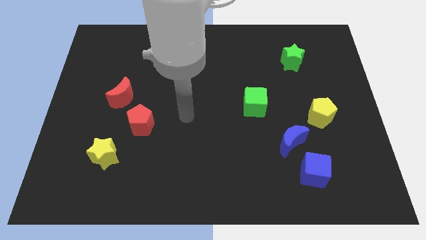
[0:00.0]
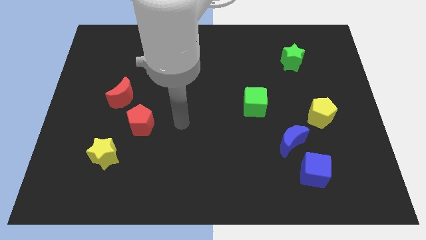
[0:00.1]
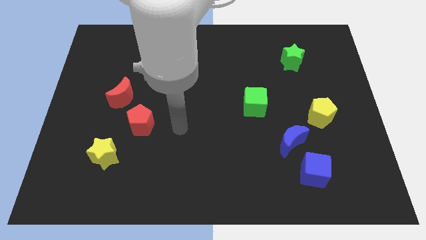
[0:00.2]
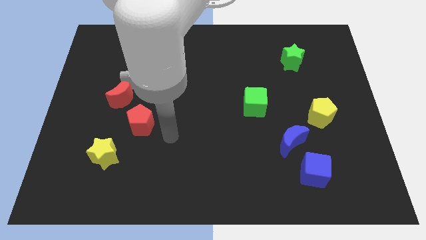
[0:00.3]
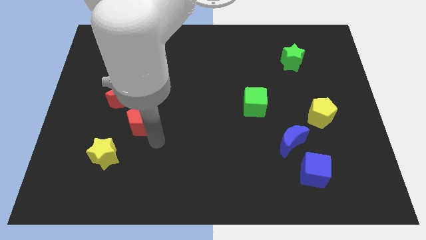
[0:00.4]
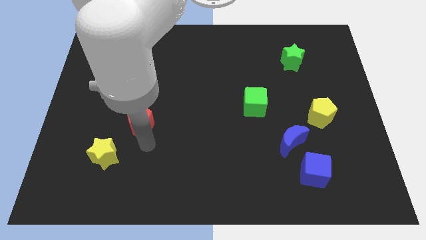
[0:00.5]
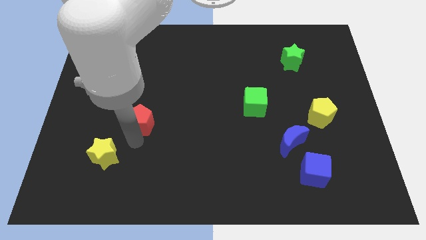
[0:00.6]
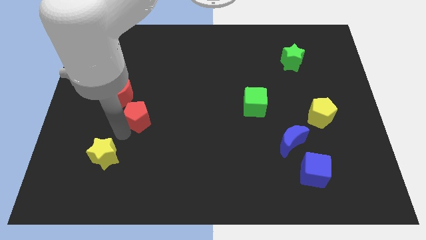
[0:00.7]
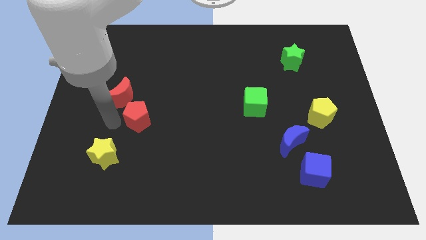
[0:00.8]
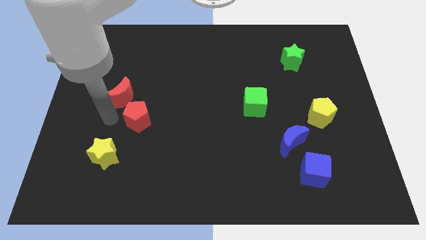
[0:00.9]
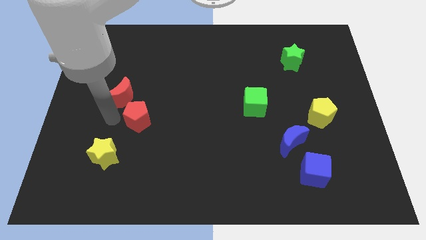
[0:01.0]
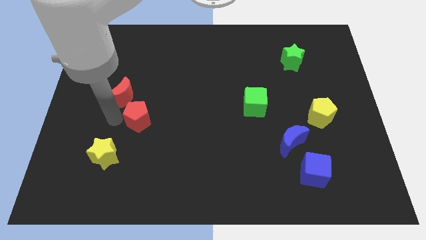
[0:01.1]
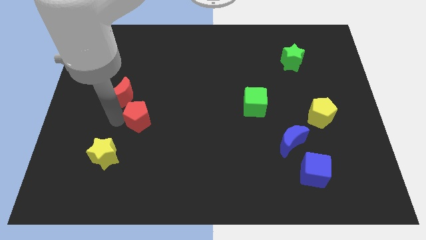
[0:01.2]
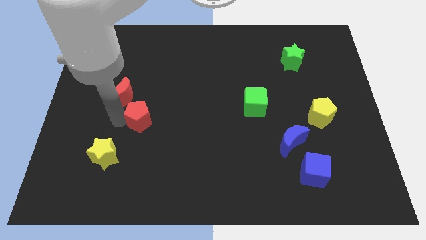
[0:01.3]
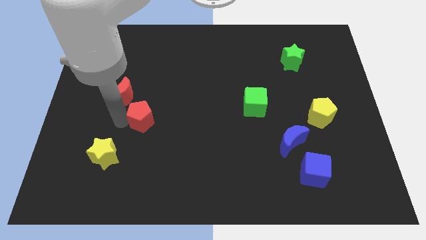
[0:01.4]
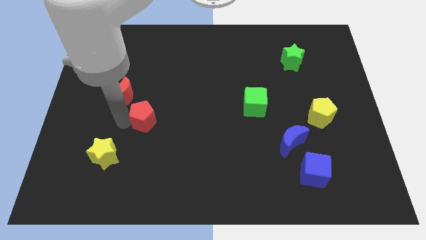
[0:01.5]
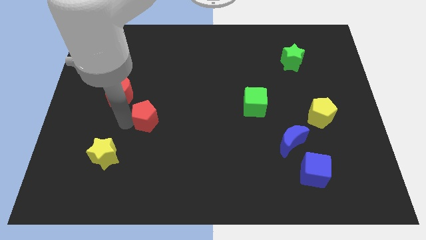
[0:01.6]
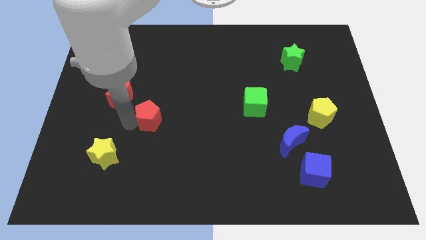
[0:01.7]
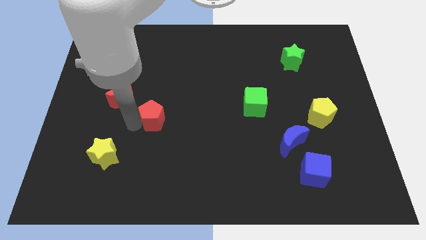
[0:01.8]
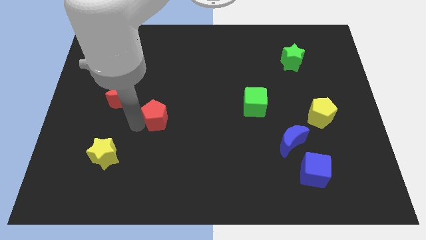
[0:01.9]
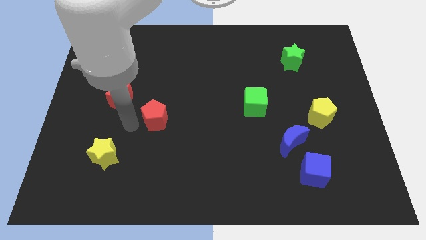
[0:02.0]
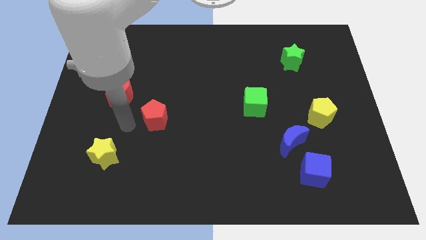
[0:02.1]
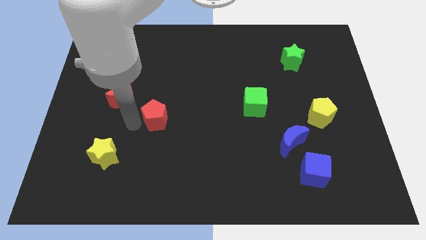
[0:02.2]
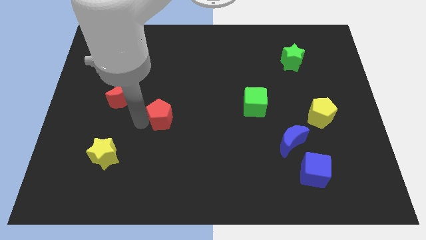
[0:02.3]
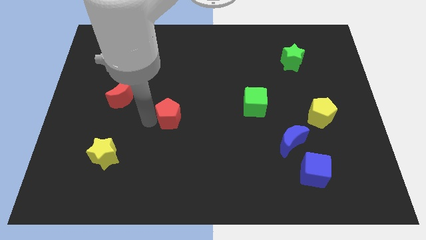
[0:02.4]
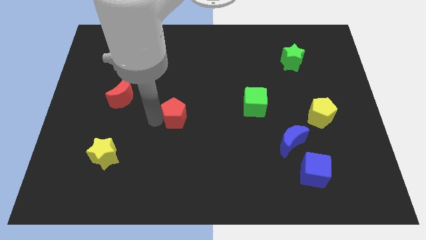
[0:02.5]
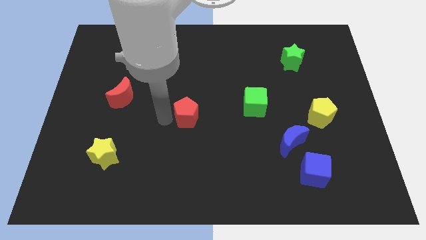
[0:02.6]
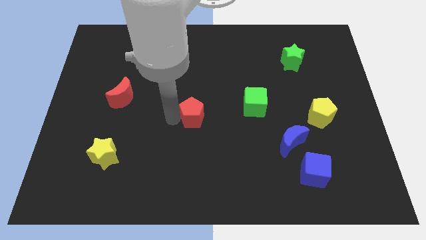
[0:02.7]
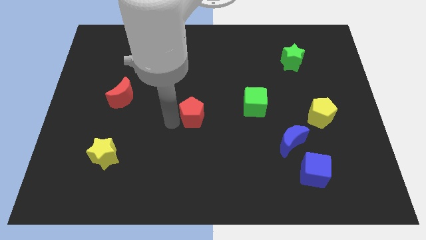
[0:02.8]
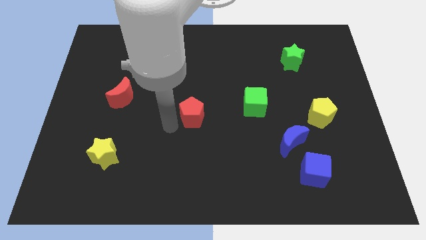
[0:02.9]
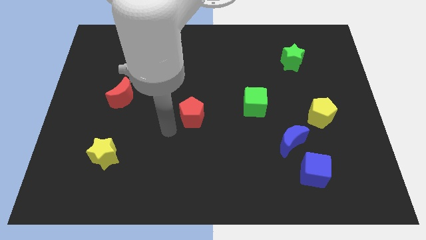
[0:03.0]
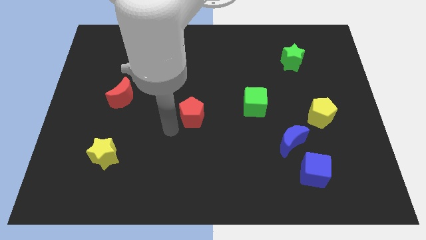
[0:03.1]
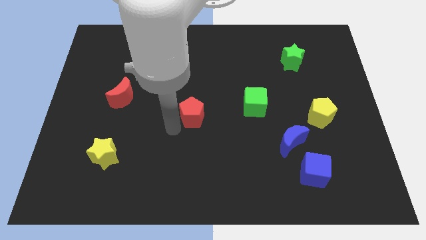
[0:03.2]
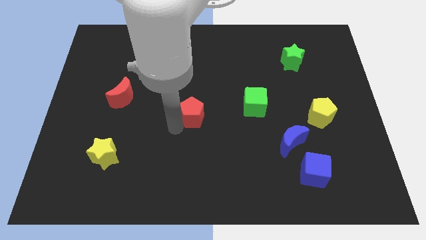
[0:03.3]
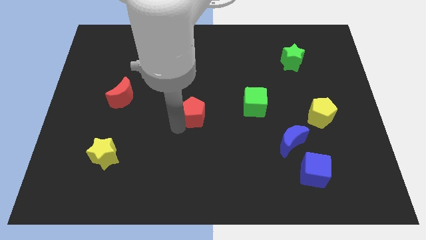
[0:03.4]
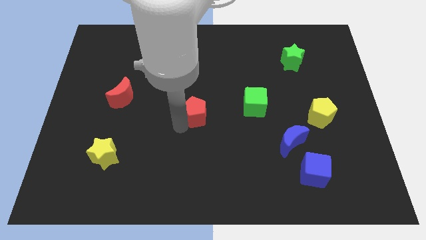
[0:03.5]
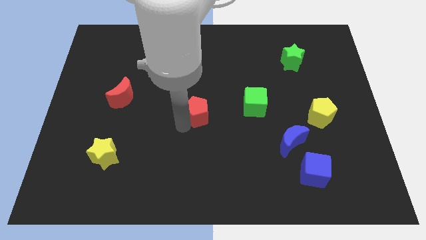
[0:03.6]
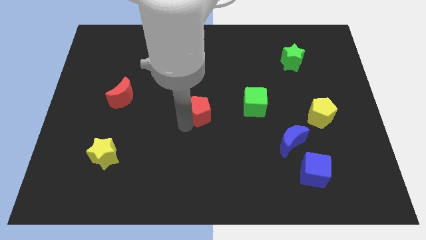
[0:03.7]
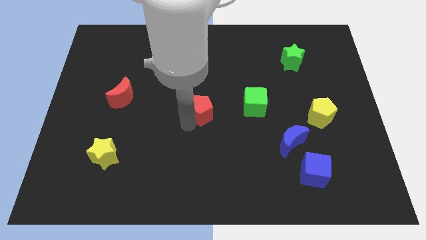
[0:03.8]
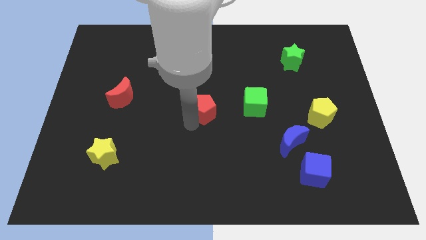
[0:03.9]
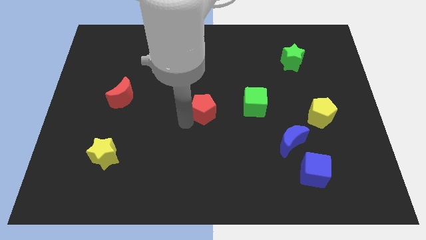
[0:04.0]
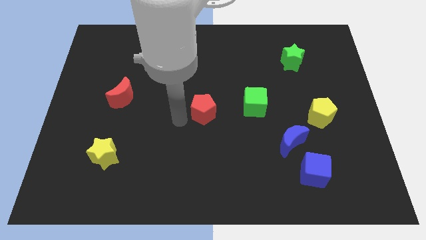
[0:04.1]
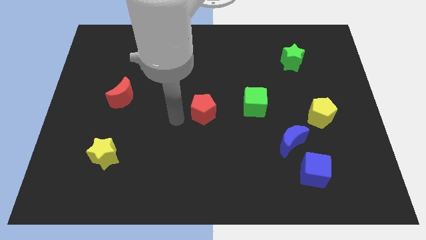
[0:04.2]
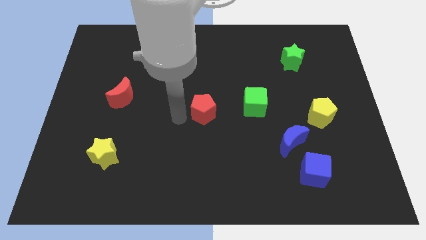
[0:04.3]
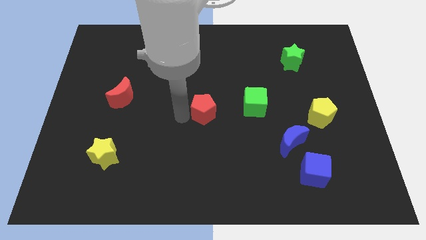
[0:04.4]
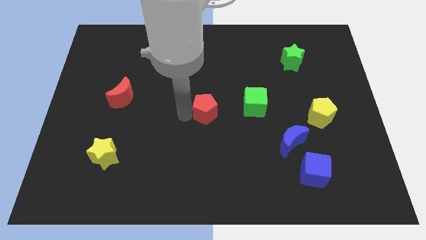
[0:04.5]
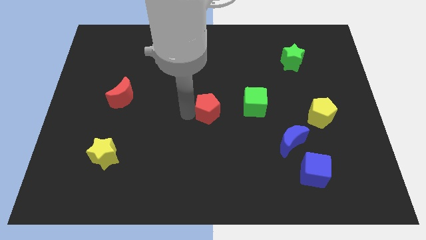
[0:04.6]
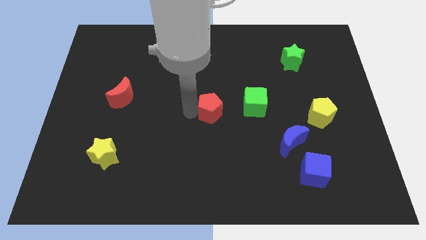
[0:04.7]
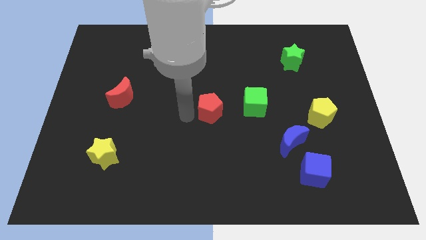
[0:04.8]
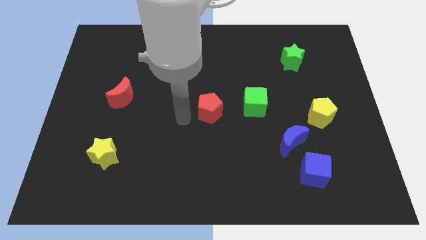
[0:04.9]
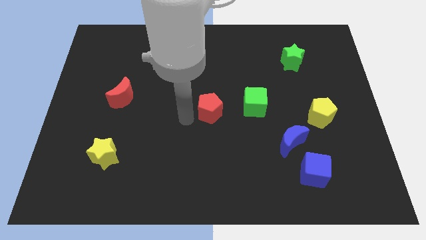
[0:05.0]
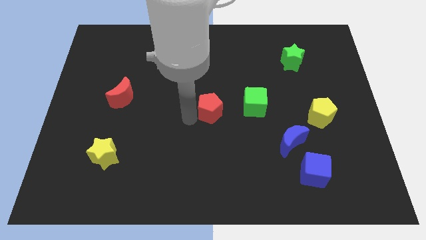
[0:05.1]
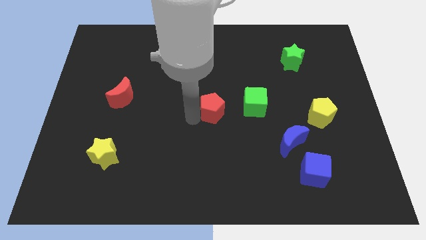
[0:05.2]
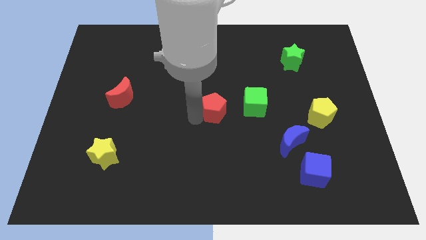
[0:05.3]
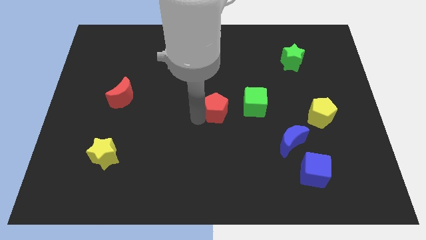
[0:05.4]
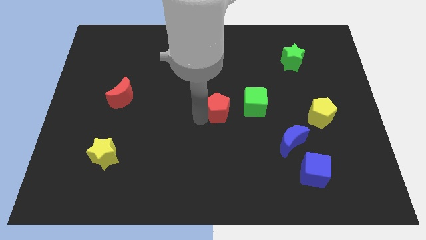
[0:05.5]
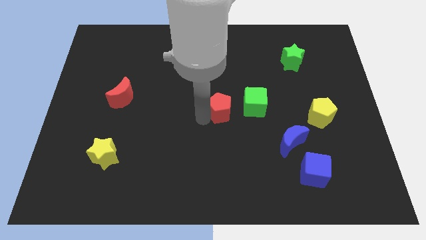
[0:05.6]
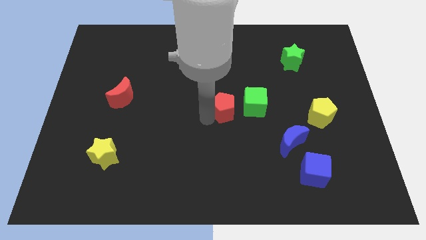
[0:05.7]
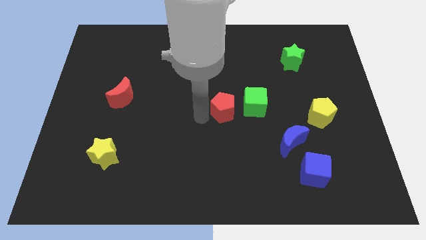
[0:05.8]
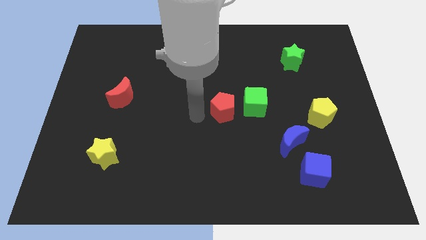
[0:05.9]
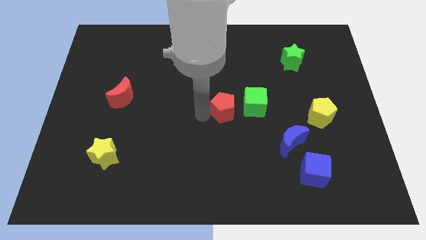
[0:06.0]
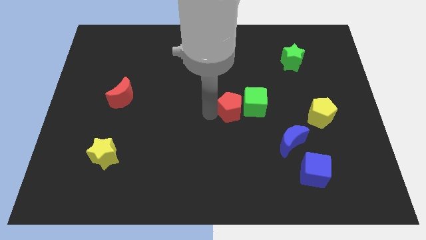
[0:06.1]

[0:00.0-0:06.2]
slide the red pentagon close to the green cube

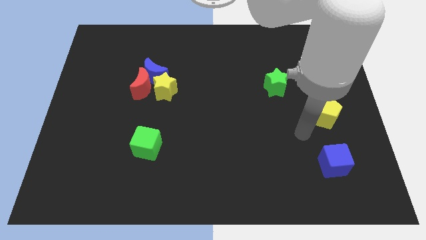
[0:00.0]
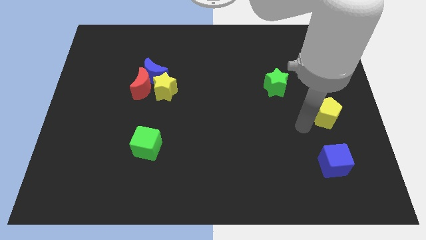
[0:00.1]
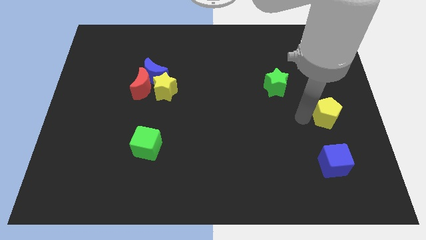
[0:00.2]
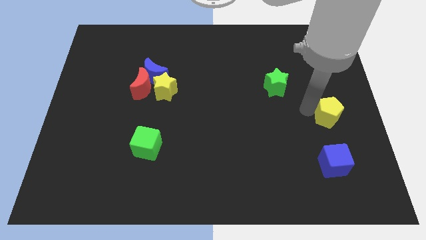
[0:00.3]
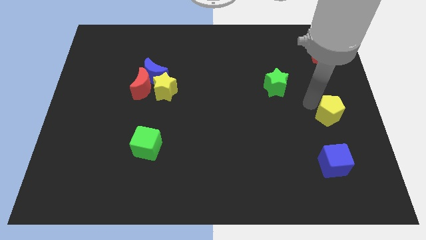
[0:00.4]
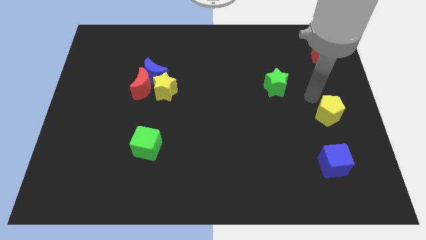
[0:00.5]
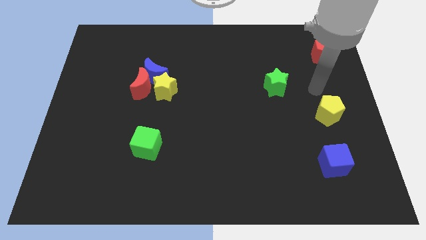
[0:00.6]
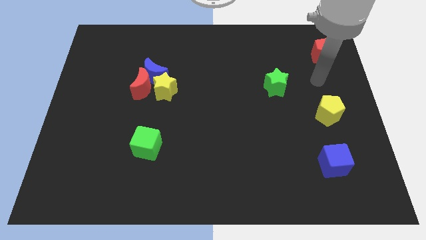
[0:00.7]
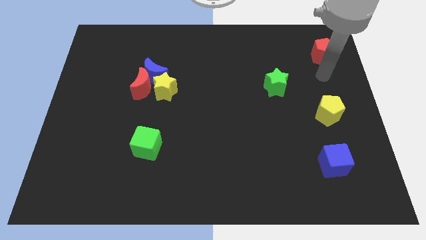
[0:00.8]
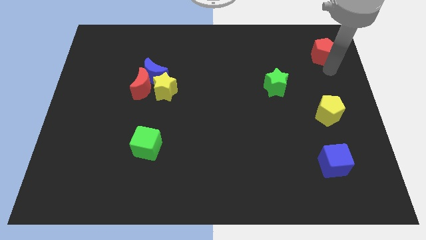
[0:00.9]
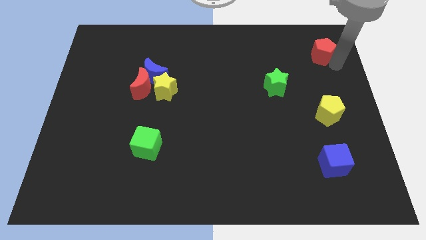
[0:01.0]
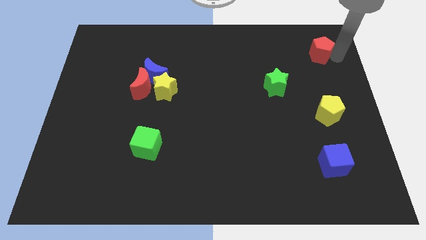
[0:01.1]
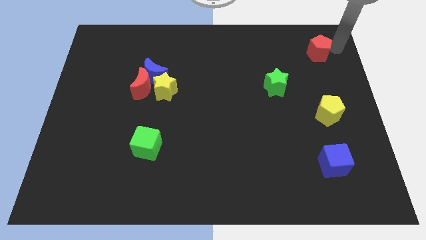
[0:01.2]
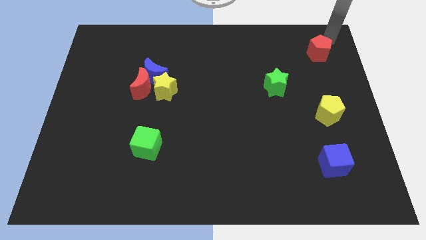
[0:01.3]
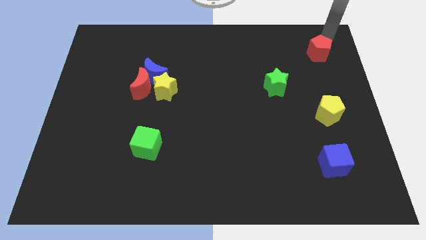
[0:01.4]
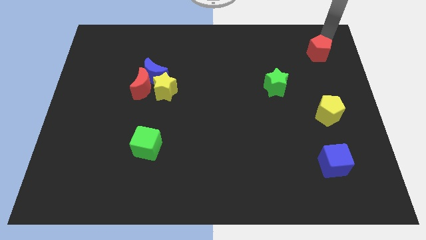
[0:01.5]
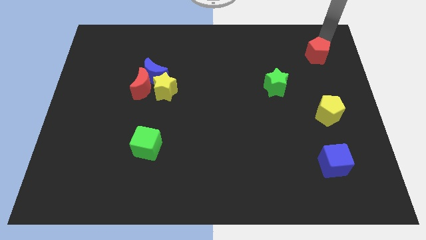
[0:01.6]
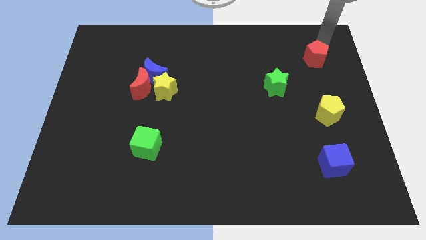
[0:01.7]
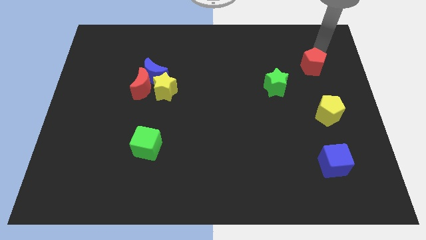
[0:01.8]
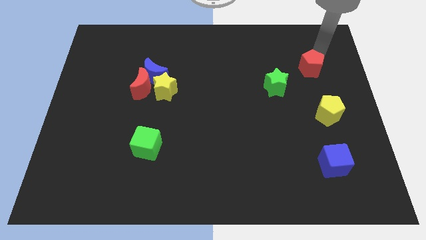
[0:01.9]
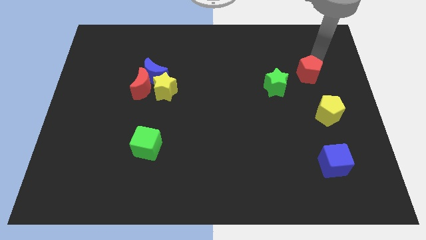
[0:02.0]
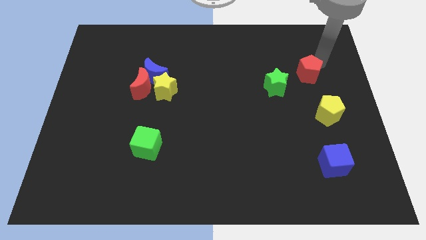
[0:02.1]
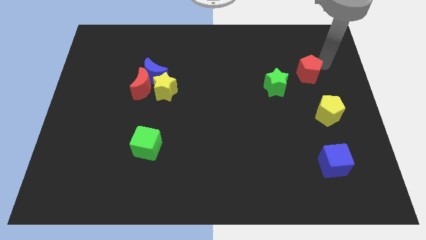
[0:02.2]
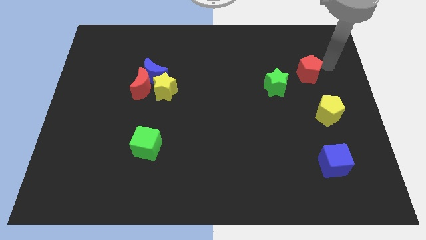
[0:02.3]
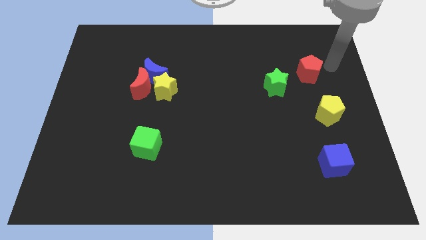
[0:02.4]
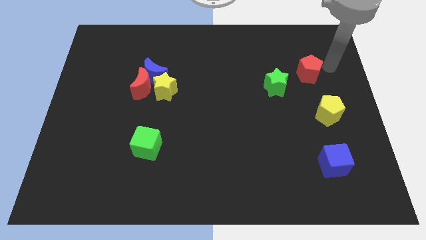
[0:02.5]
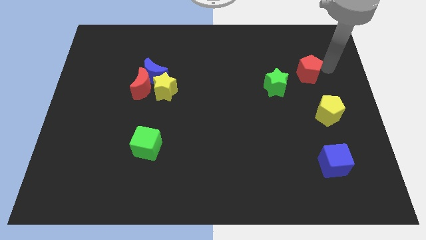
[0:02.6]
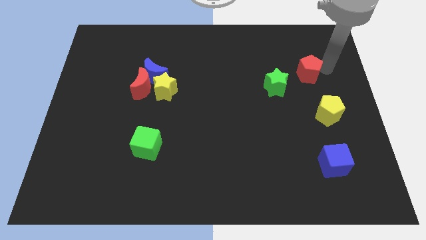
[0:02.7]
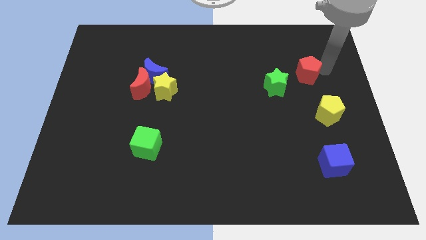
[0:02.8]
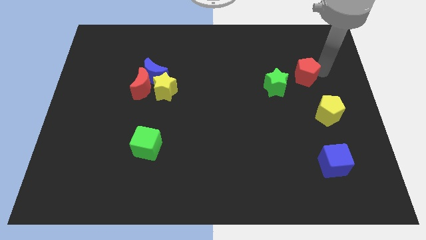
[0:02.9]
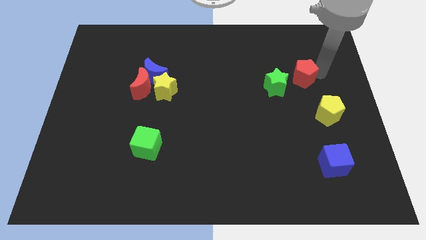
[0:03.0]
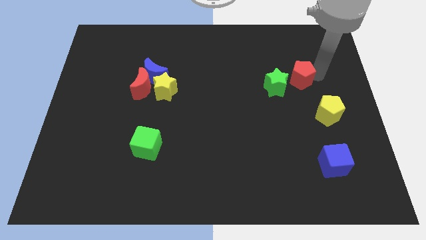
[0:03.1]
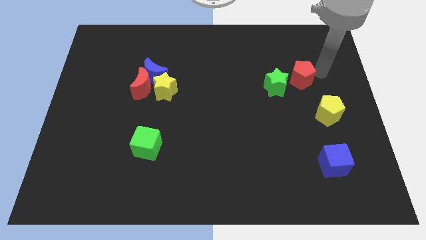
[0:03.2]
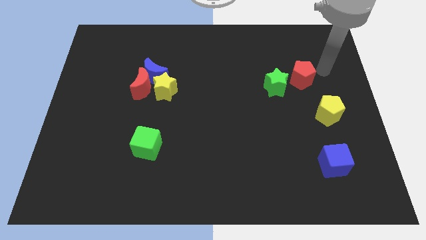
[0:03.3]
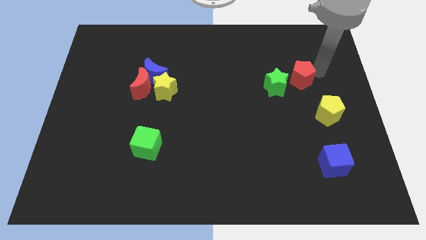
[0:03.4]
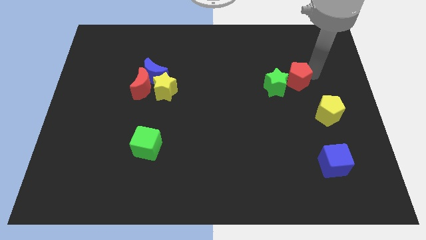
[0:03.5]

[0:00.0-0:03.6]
slide the red pentagon to the green star
